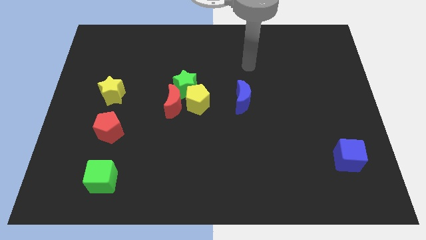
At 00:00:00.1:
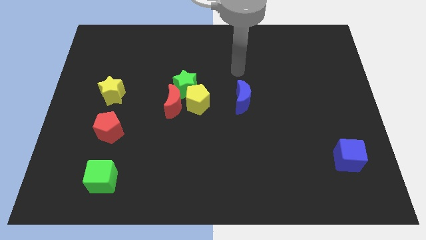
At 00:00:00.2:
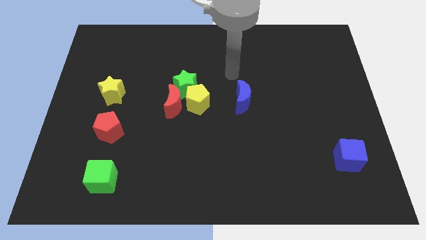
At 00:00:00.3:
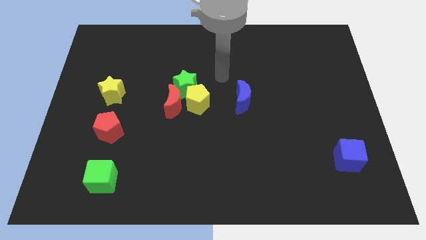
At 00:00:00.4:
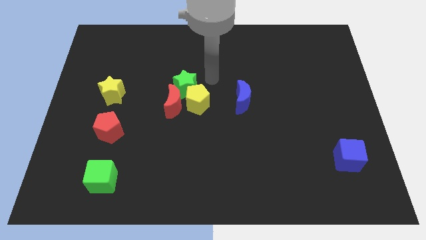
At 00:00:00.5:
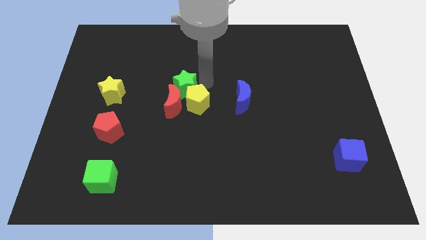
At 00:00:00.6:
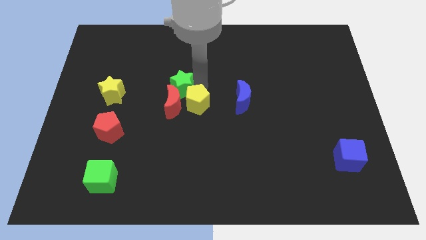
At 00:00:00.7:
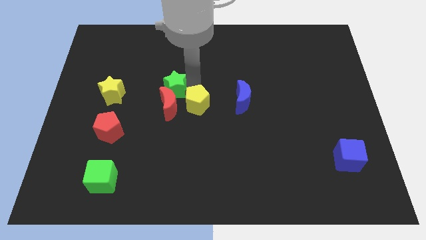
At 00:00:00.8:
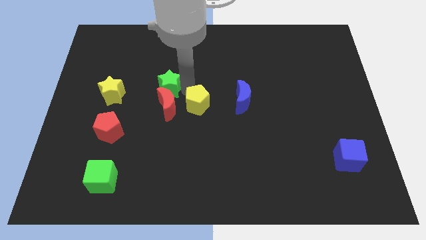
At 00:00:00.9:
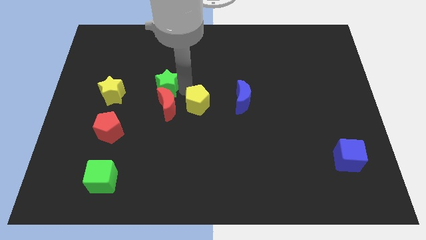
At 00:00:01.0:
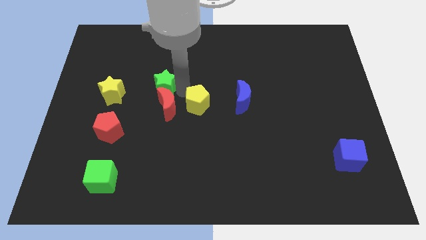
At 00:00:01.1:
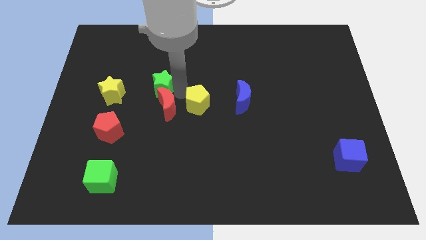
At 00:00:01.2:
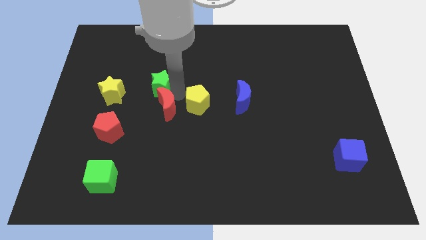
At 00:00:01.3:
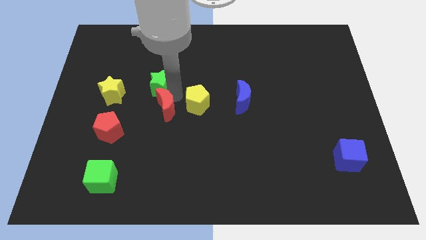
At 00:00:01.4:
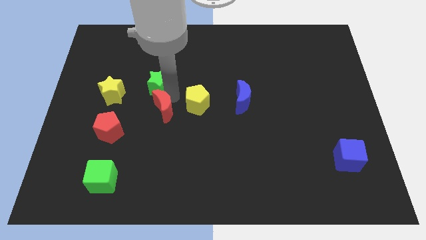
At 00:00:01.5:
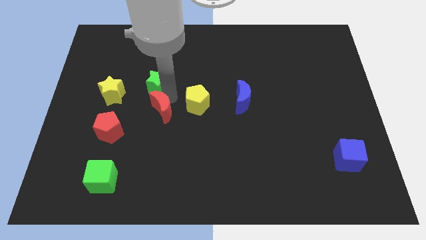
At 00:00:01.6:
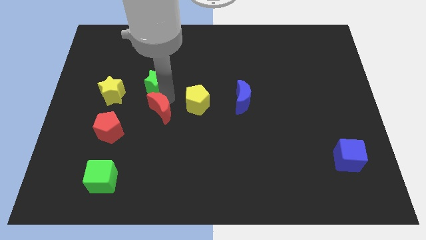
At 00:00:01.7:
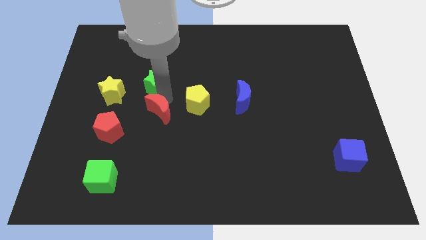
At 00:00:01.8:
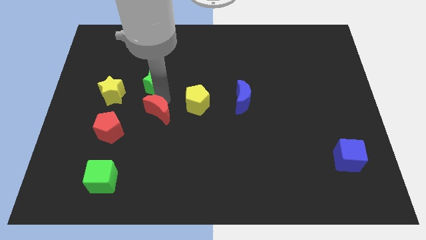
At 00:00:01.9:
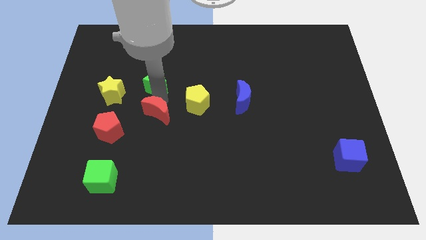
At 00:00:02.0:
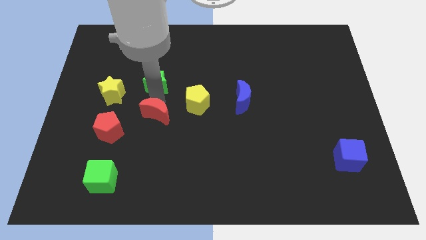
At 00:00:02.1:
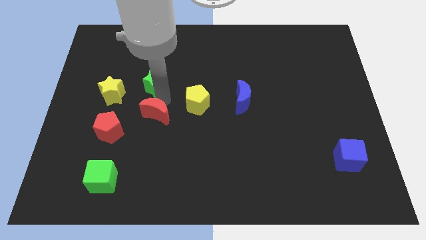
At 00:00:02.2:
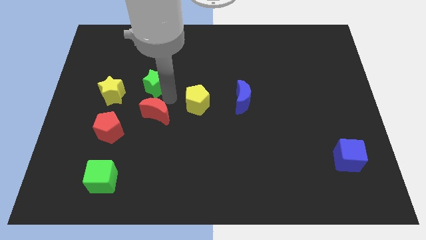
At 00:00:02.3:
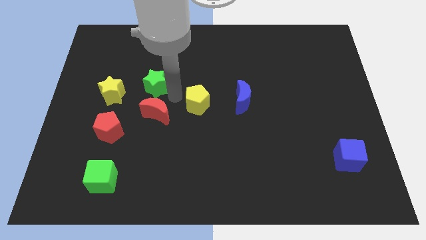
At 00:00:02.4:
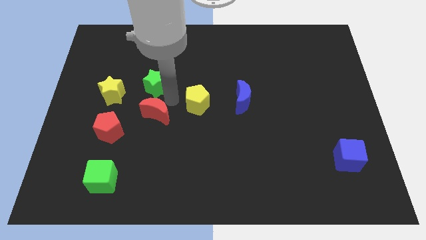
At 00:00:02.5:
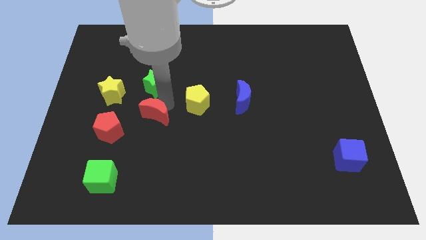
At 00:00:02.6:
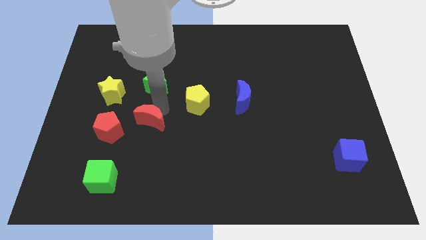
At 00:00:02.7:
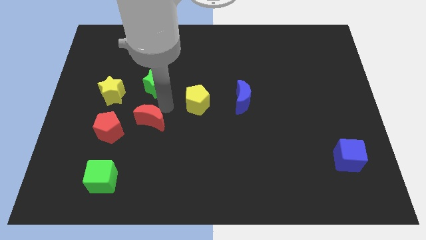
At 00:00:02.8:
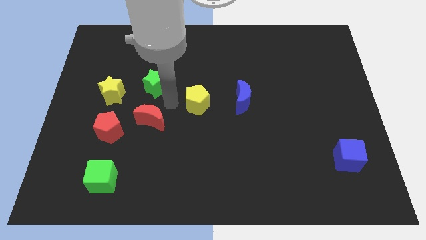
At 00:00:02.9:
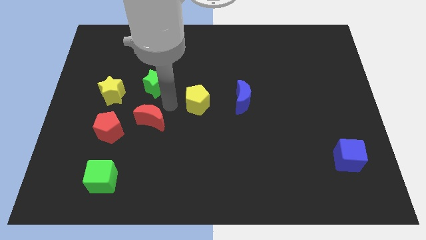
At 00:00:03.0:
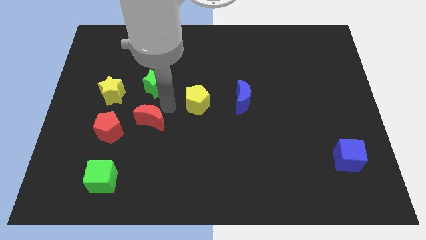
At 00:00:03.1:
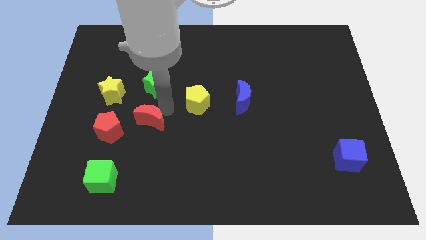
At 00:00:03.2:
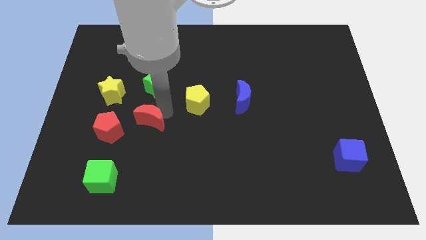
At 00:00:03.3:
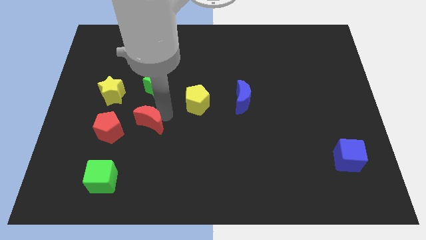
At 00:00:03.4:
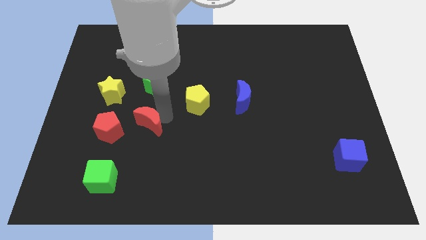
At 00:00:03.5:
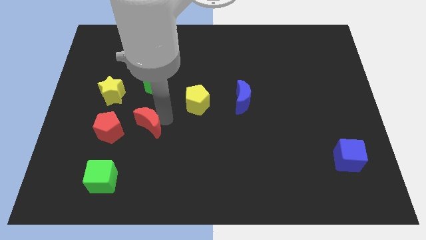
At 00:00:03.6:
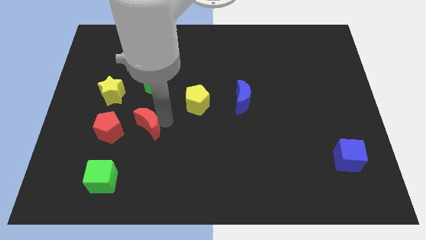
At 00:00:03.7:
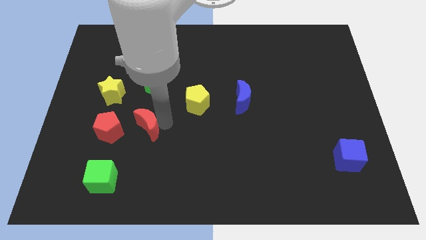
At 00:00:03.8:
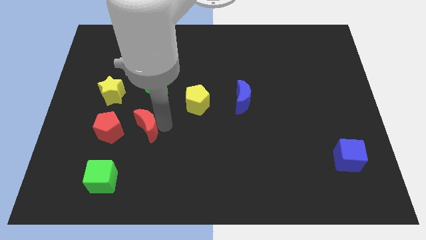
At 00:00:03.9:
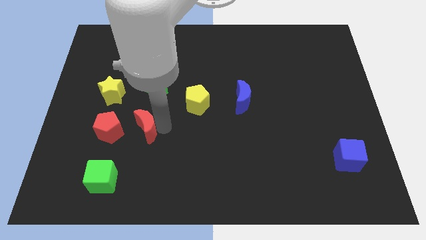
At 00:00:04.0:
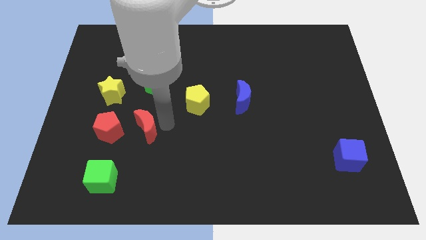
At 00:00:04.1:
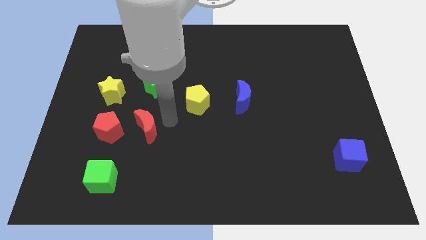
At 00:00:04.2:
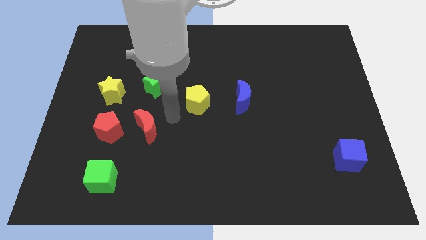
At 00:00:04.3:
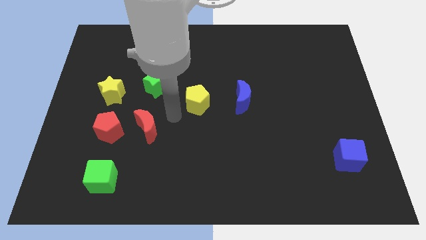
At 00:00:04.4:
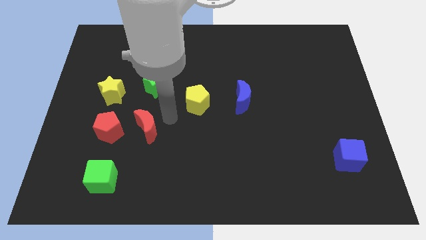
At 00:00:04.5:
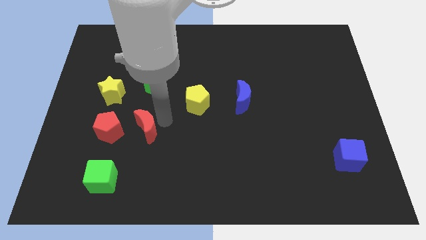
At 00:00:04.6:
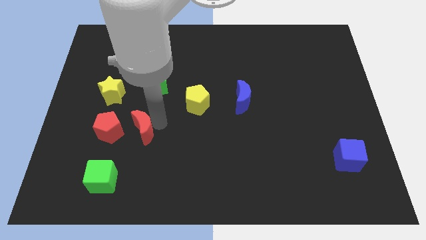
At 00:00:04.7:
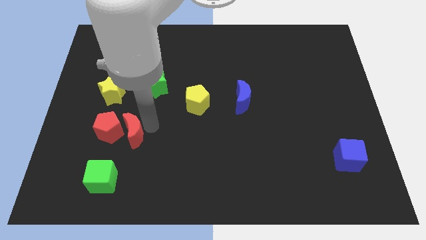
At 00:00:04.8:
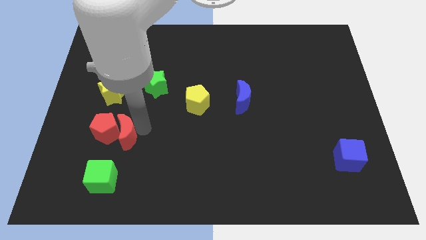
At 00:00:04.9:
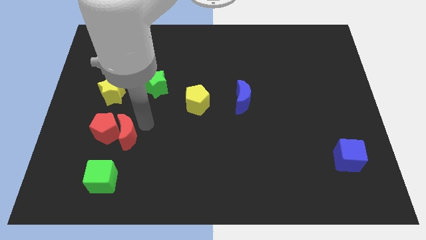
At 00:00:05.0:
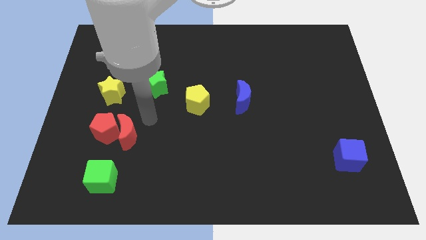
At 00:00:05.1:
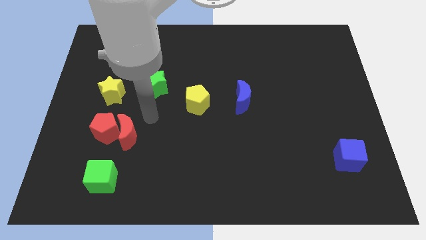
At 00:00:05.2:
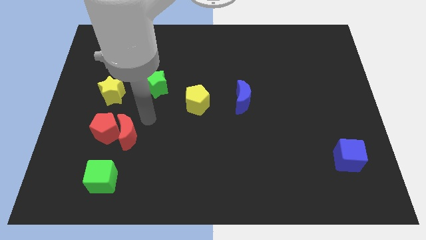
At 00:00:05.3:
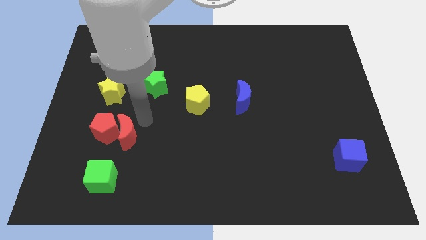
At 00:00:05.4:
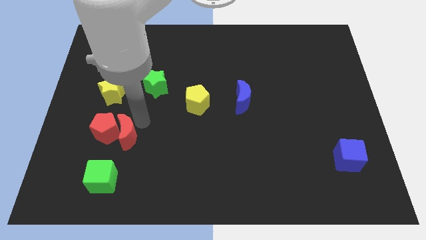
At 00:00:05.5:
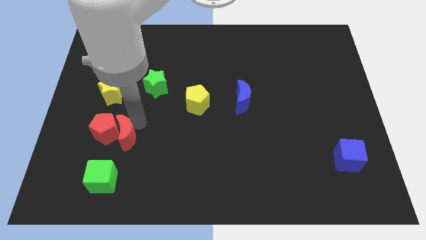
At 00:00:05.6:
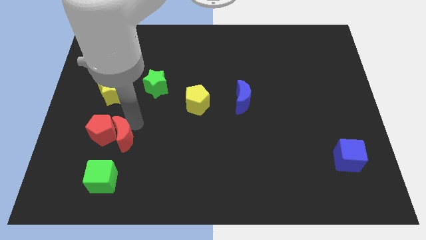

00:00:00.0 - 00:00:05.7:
move the red moon to the bottom of the yellow star
